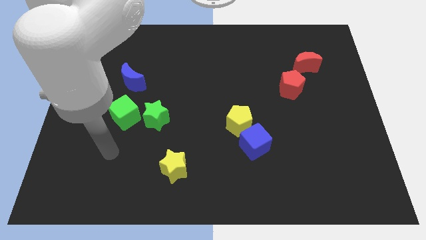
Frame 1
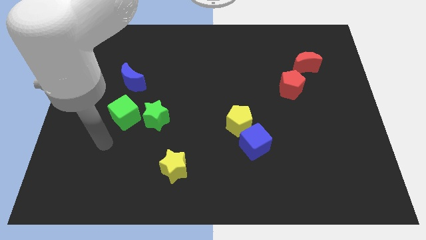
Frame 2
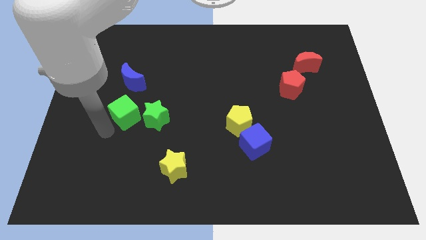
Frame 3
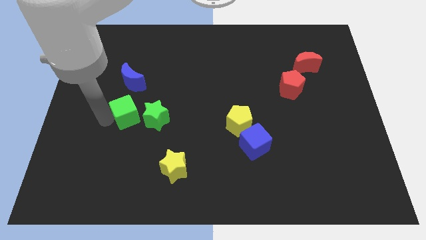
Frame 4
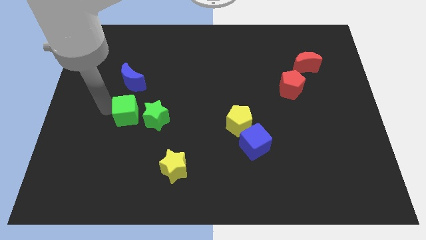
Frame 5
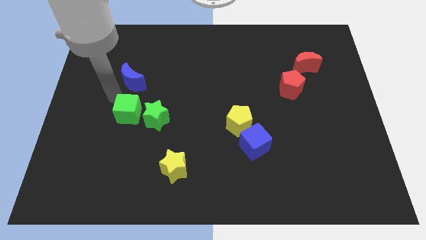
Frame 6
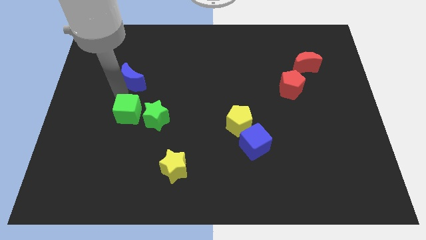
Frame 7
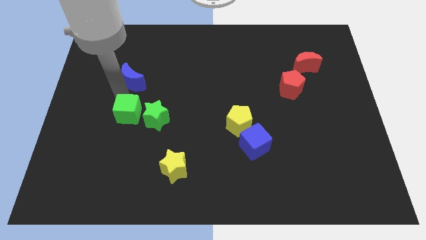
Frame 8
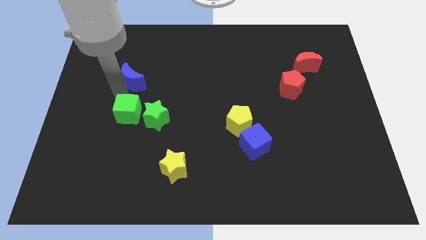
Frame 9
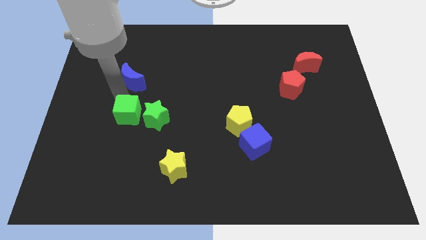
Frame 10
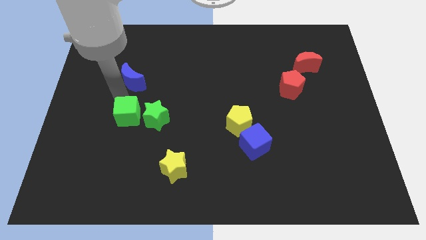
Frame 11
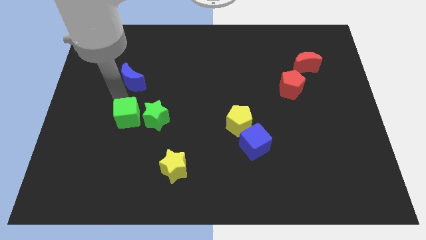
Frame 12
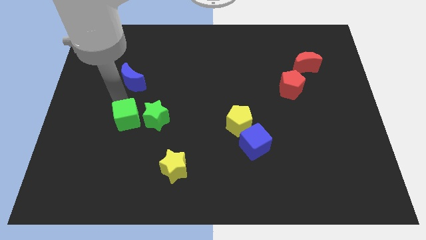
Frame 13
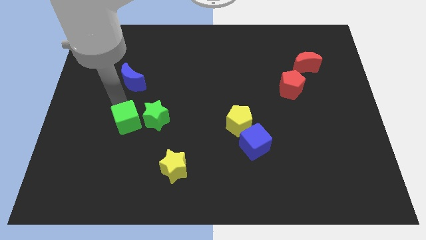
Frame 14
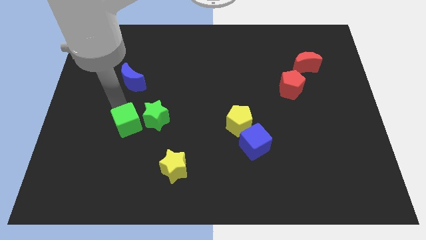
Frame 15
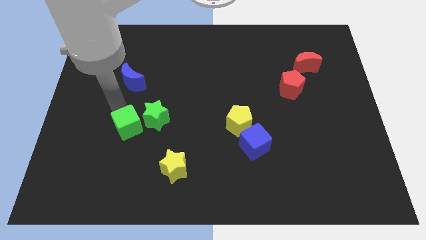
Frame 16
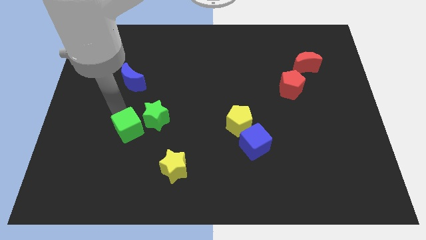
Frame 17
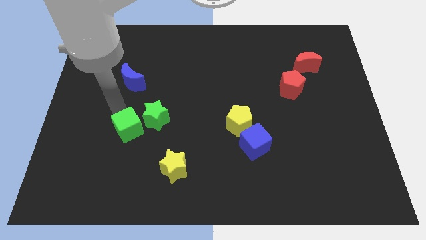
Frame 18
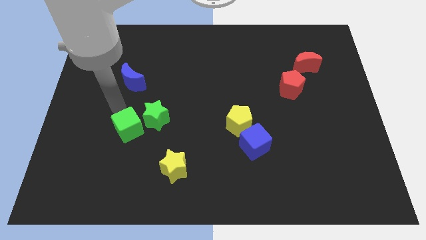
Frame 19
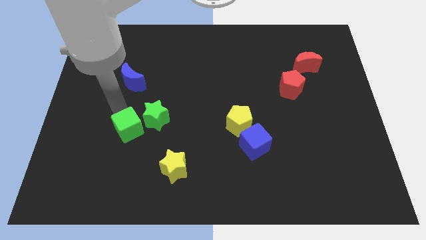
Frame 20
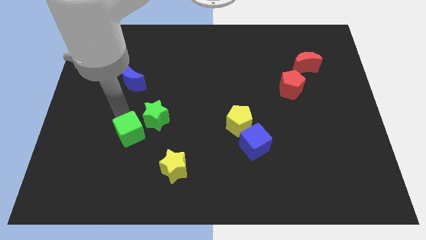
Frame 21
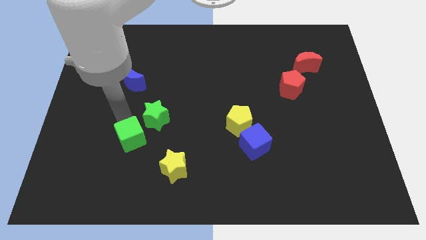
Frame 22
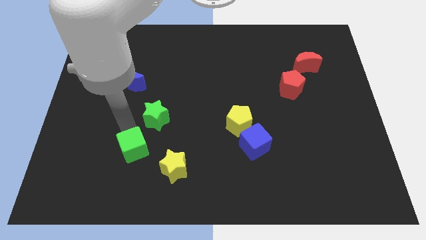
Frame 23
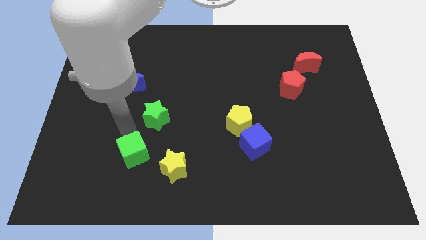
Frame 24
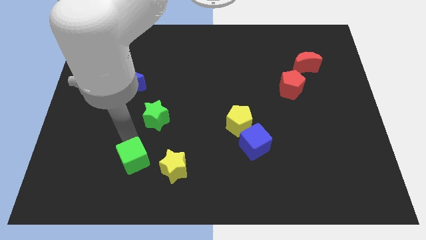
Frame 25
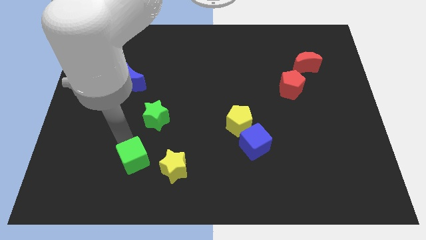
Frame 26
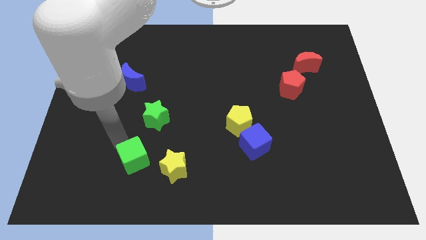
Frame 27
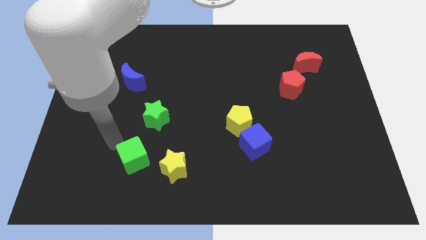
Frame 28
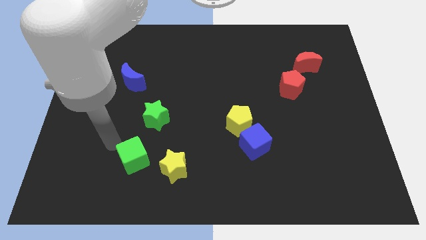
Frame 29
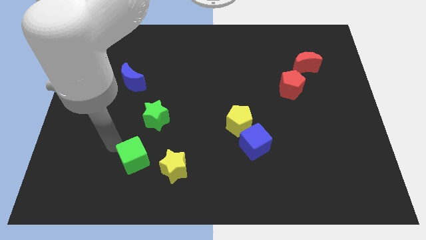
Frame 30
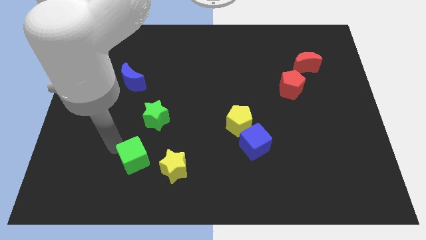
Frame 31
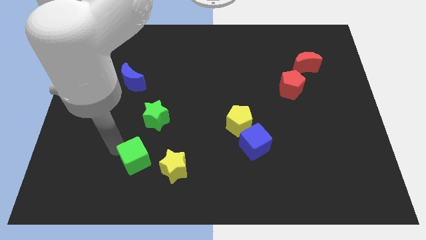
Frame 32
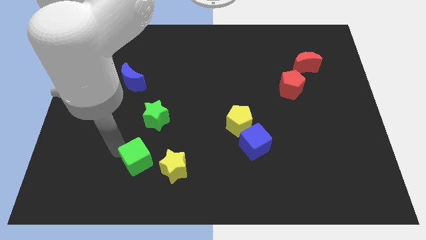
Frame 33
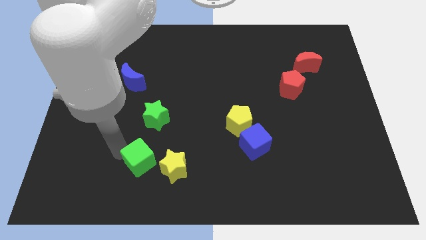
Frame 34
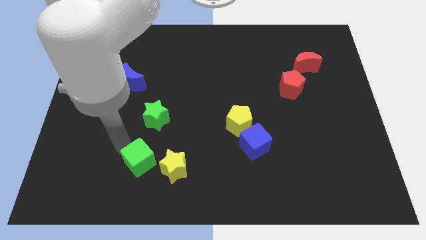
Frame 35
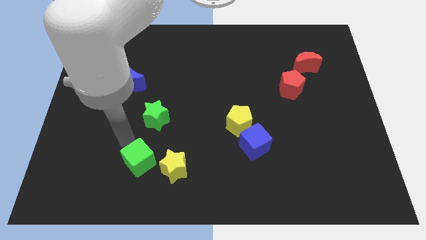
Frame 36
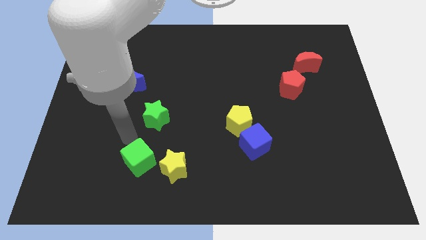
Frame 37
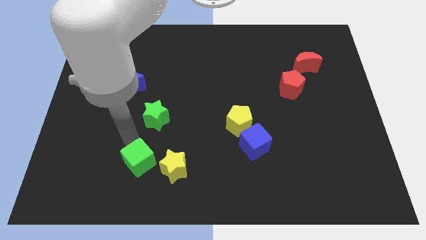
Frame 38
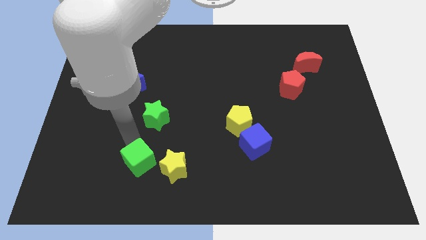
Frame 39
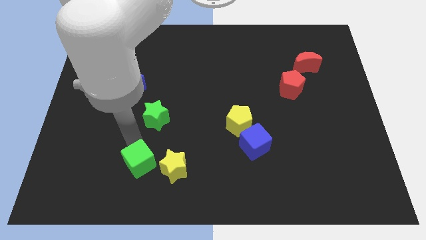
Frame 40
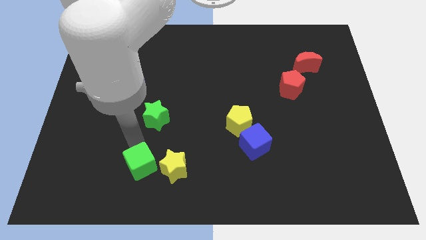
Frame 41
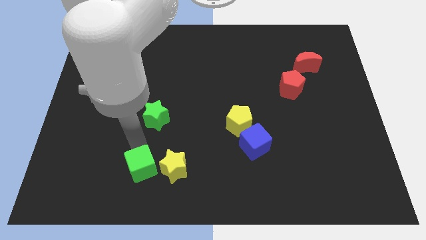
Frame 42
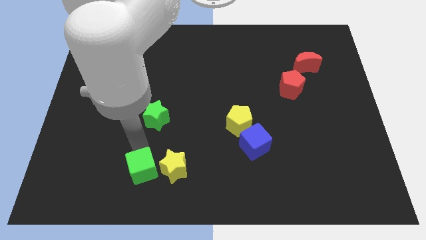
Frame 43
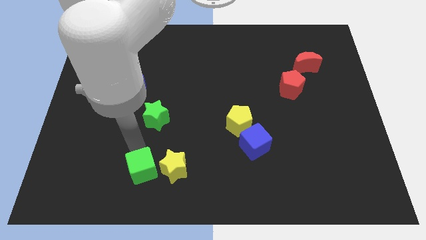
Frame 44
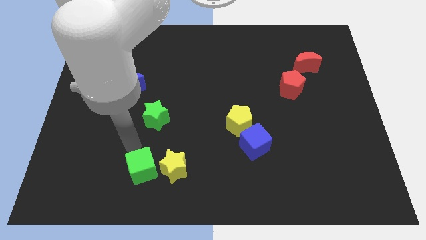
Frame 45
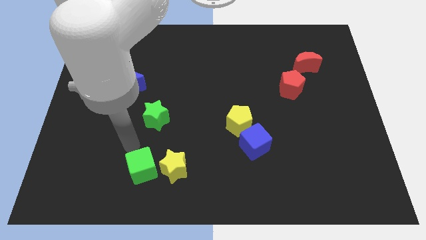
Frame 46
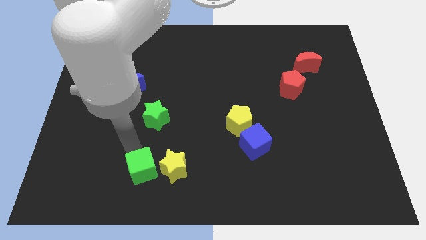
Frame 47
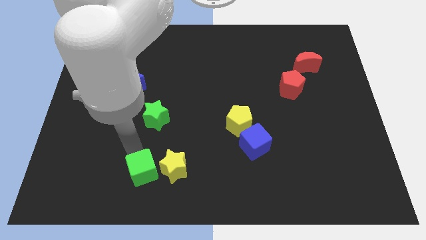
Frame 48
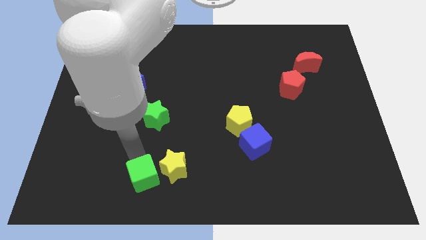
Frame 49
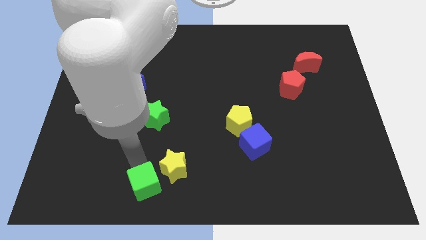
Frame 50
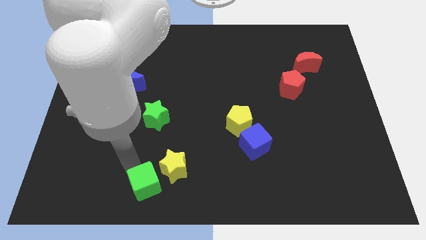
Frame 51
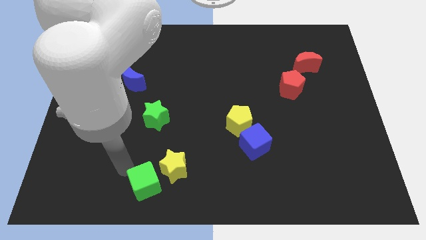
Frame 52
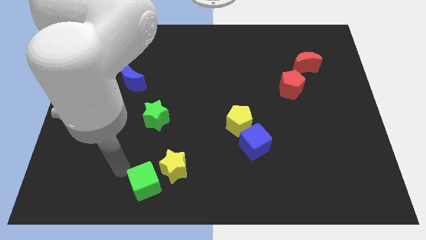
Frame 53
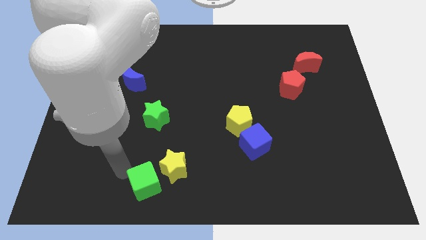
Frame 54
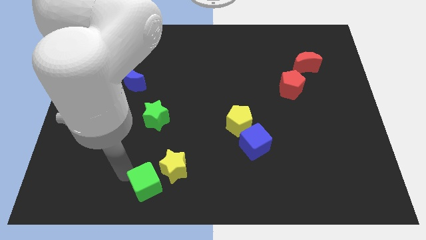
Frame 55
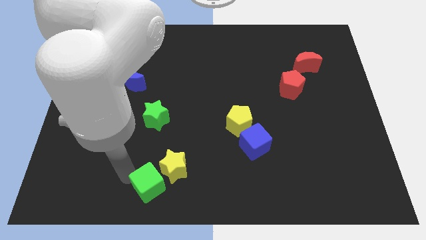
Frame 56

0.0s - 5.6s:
move the green cube to the bottom side

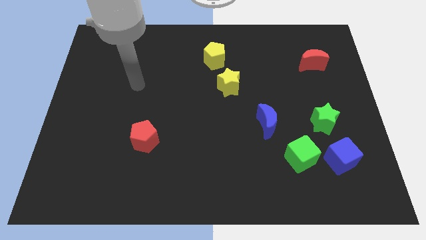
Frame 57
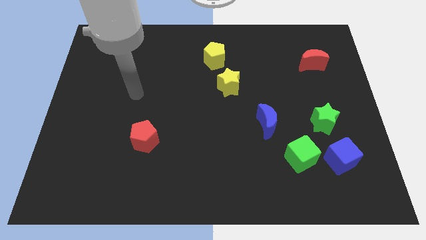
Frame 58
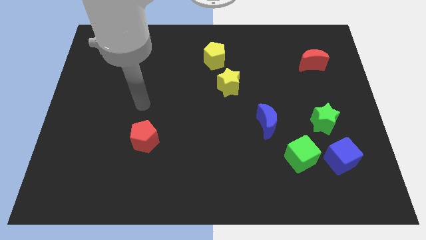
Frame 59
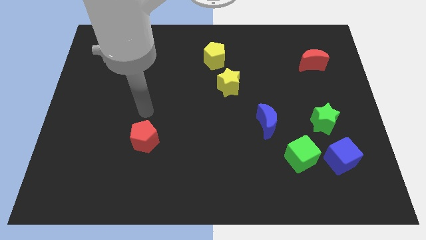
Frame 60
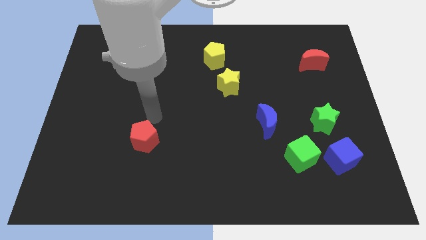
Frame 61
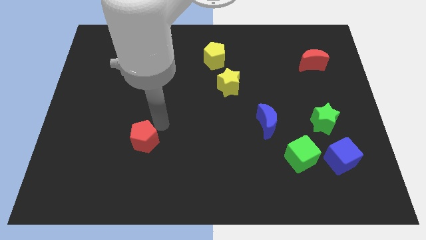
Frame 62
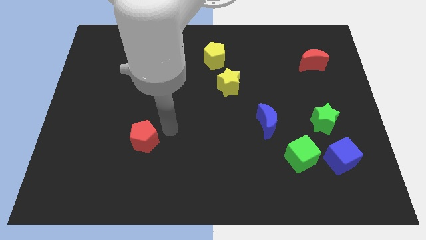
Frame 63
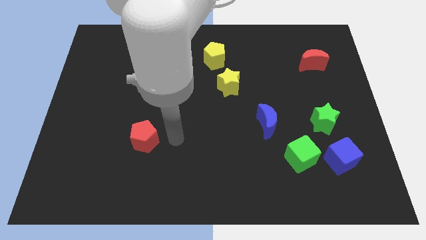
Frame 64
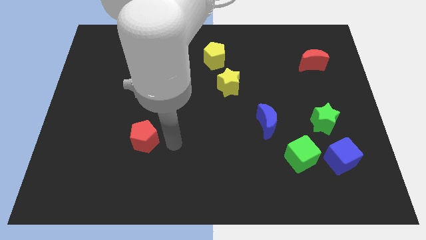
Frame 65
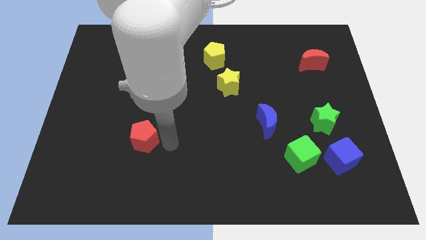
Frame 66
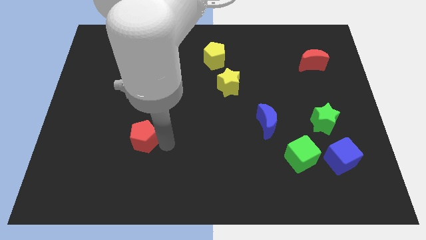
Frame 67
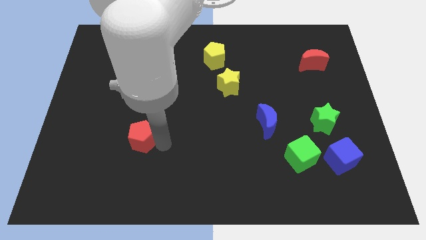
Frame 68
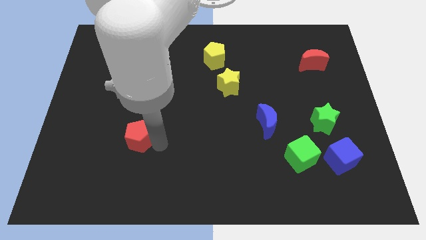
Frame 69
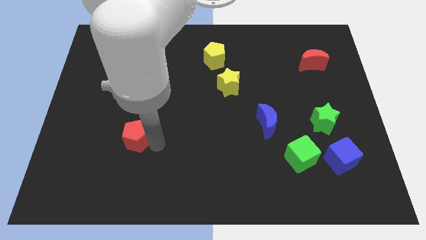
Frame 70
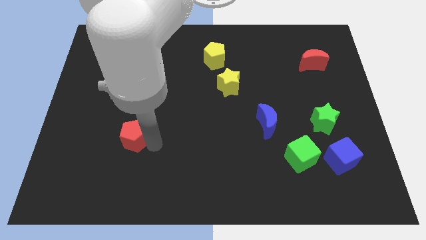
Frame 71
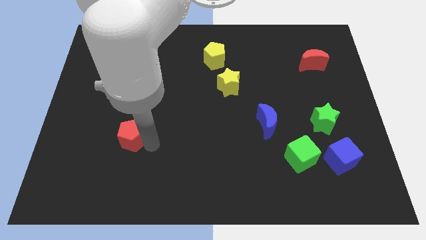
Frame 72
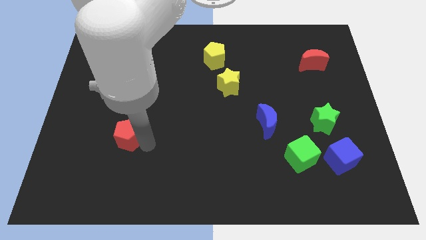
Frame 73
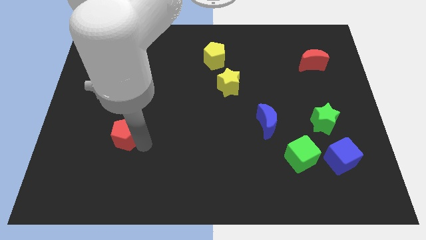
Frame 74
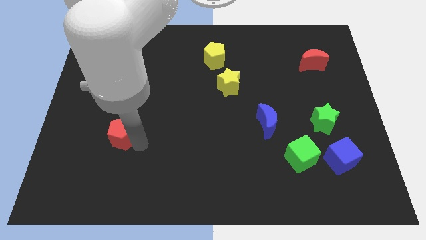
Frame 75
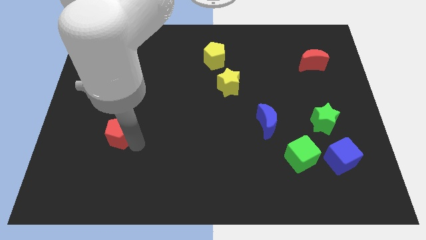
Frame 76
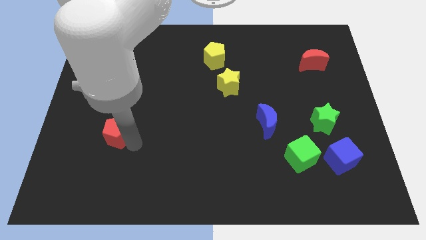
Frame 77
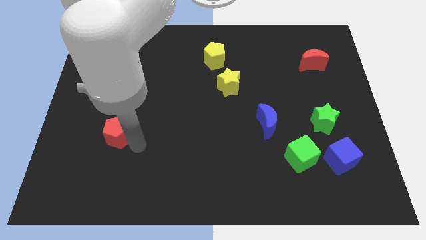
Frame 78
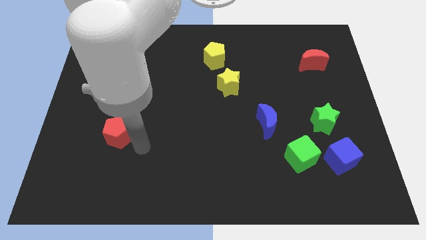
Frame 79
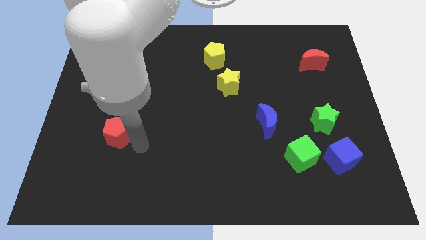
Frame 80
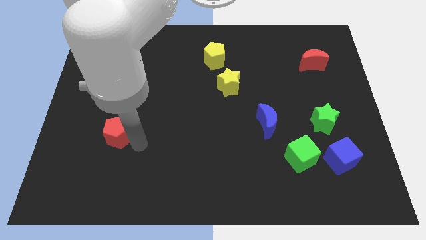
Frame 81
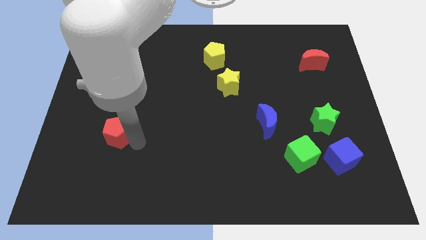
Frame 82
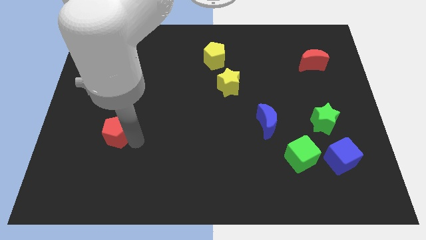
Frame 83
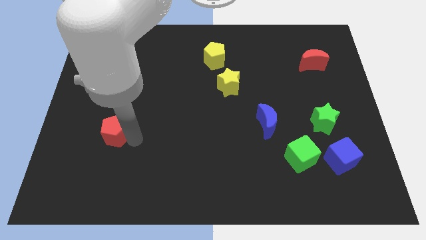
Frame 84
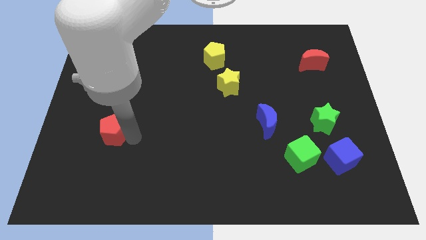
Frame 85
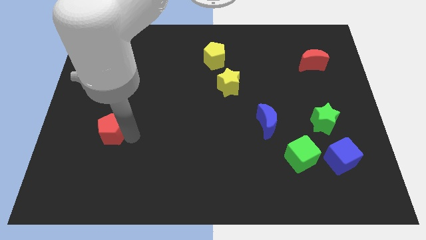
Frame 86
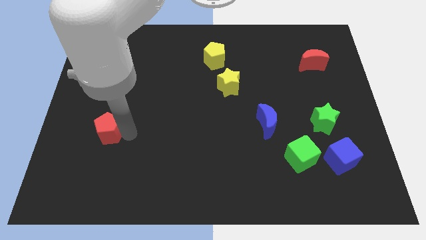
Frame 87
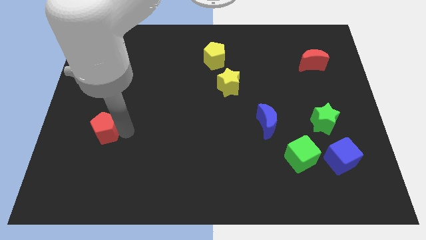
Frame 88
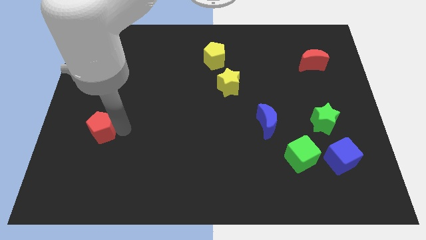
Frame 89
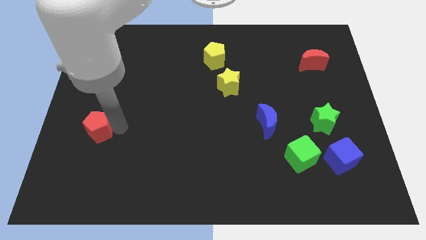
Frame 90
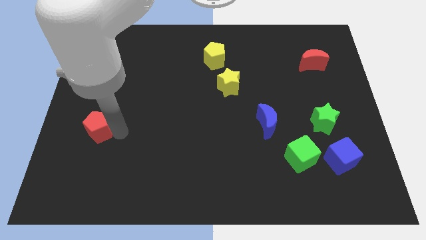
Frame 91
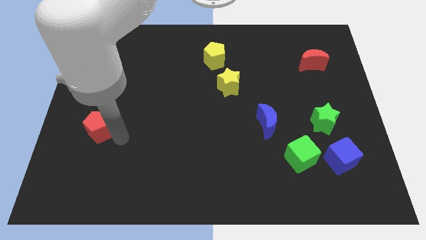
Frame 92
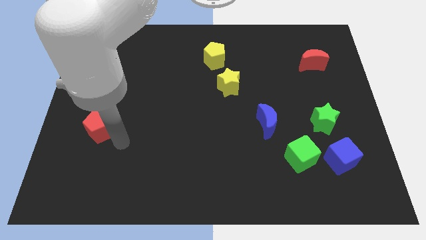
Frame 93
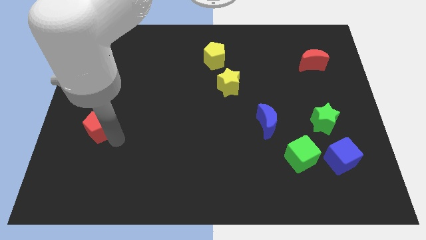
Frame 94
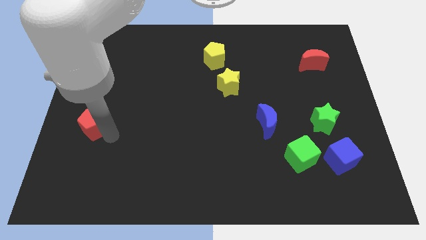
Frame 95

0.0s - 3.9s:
push the red pentagon to the left side
